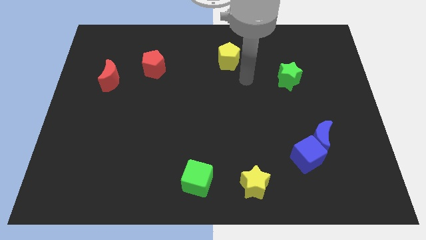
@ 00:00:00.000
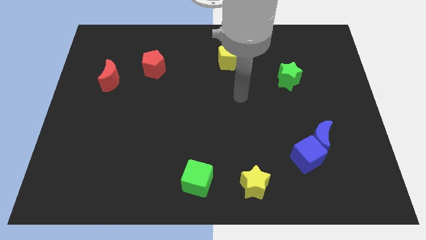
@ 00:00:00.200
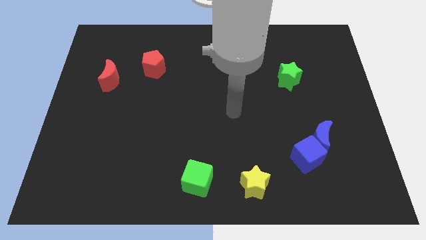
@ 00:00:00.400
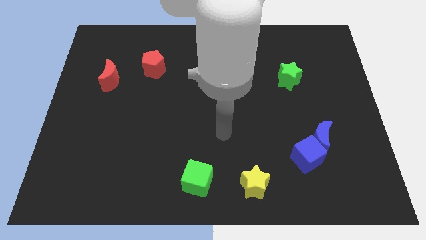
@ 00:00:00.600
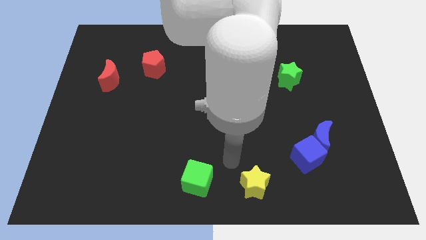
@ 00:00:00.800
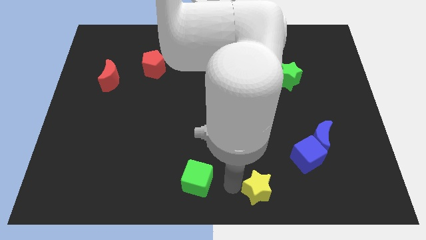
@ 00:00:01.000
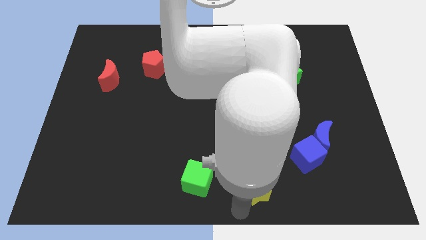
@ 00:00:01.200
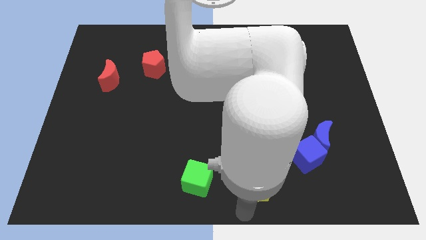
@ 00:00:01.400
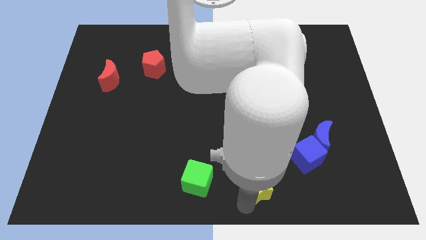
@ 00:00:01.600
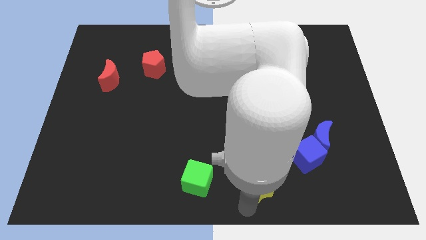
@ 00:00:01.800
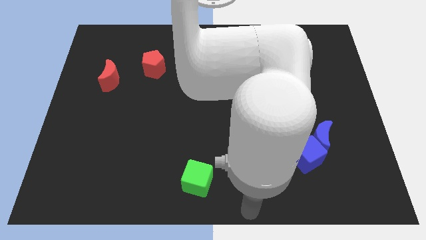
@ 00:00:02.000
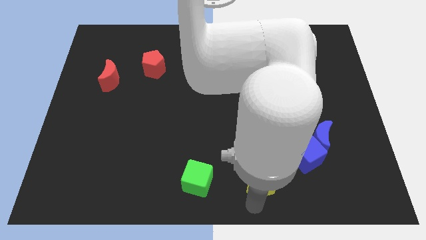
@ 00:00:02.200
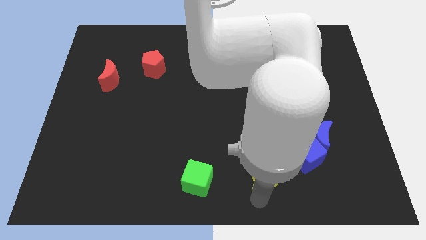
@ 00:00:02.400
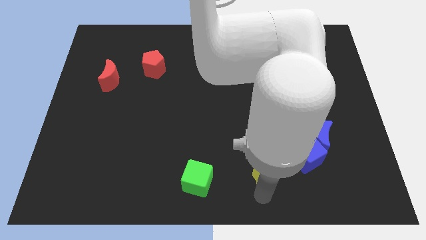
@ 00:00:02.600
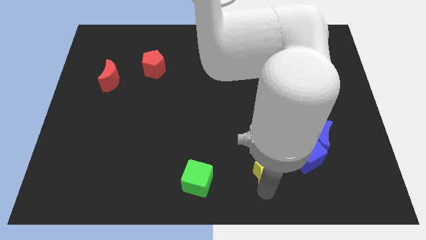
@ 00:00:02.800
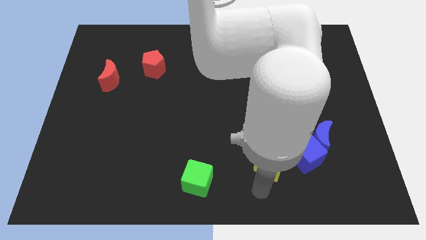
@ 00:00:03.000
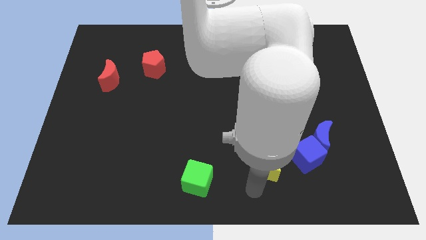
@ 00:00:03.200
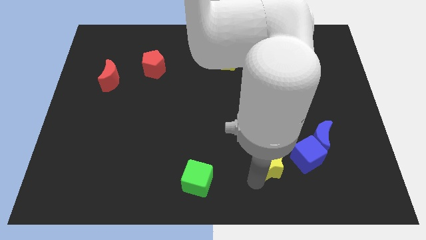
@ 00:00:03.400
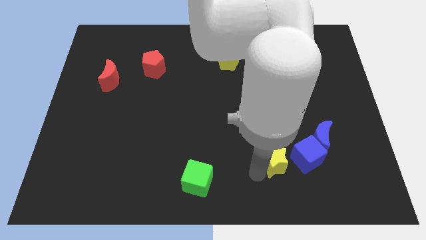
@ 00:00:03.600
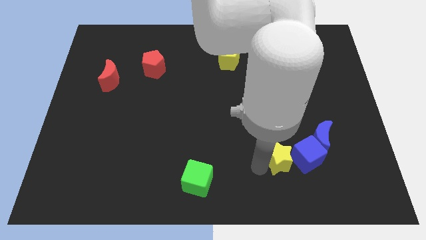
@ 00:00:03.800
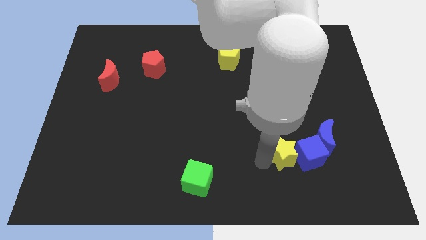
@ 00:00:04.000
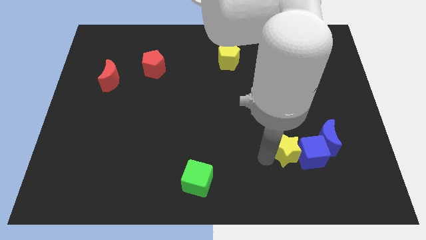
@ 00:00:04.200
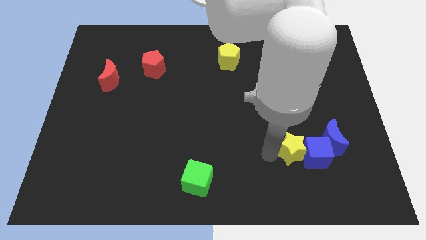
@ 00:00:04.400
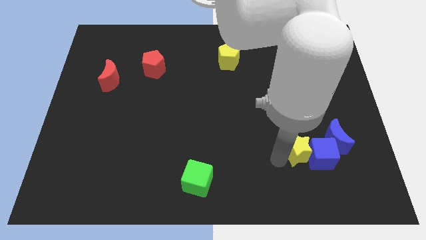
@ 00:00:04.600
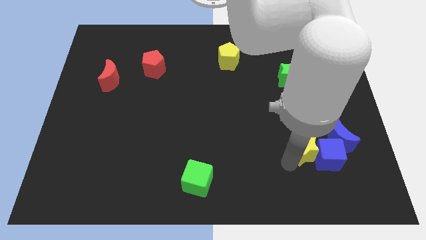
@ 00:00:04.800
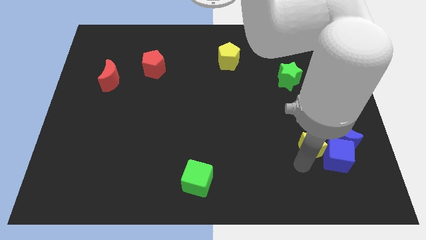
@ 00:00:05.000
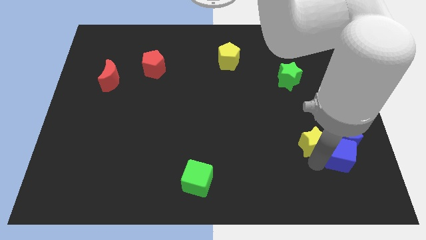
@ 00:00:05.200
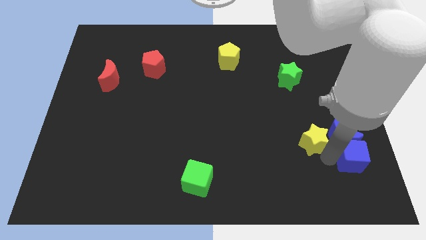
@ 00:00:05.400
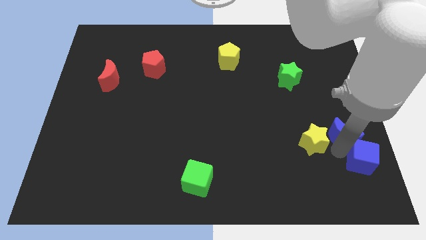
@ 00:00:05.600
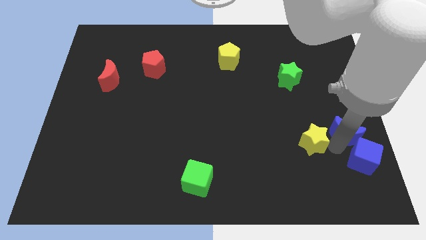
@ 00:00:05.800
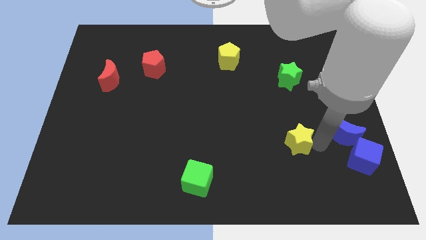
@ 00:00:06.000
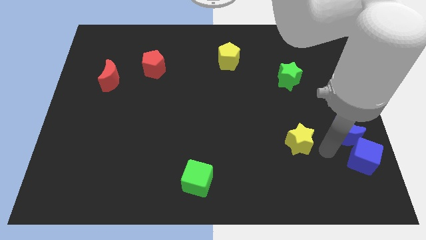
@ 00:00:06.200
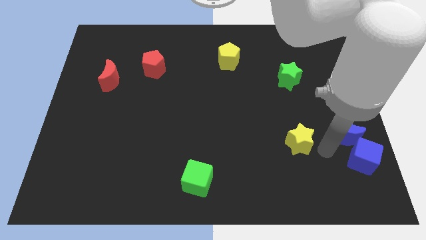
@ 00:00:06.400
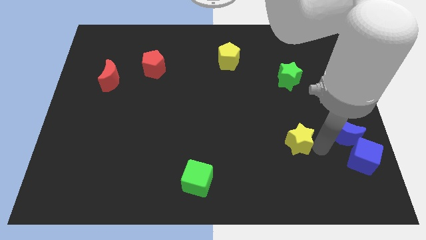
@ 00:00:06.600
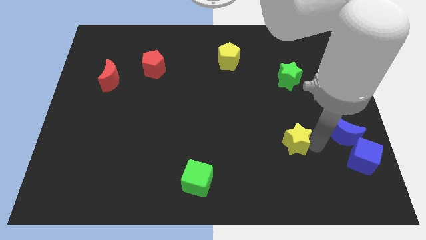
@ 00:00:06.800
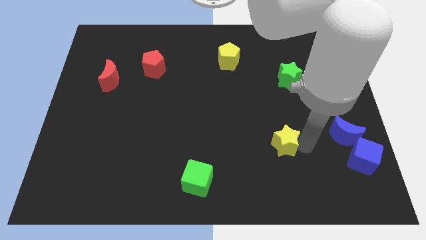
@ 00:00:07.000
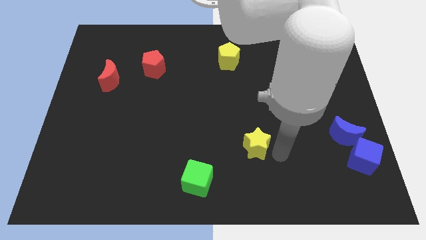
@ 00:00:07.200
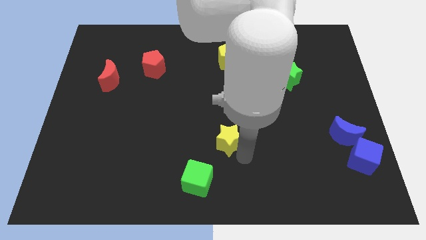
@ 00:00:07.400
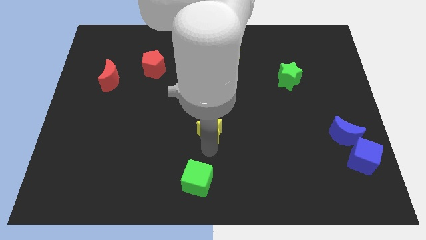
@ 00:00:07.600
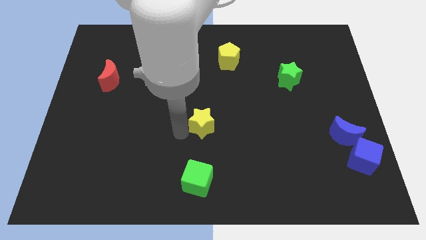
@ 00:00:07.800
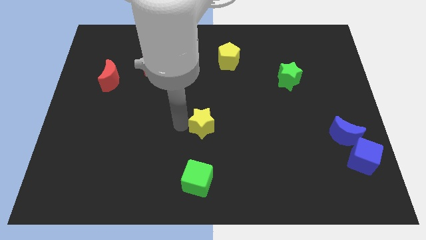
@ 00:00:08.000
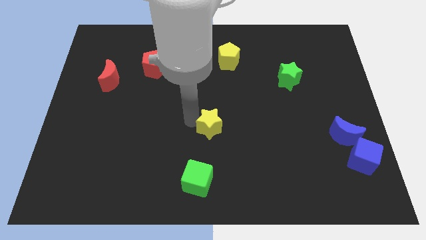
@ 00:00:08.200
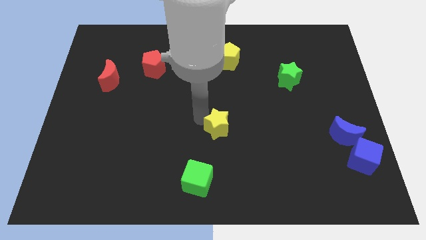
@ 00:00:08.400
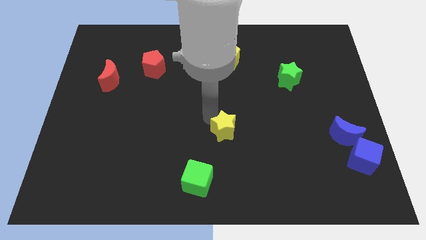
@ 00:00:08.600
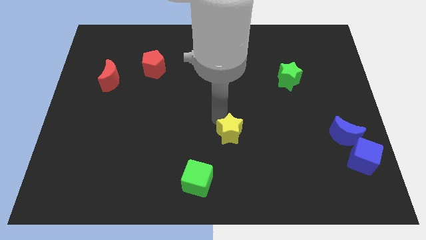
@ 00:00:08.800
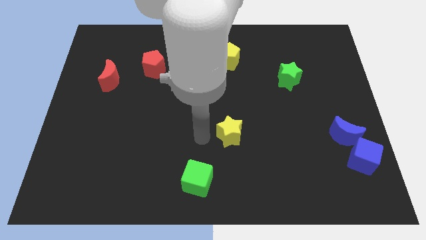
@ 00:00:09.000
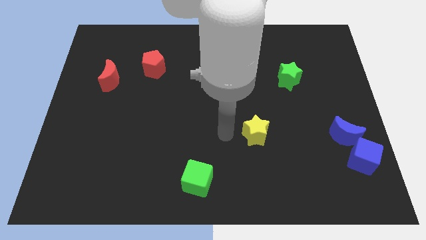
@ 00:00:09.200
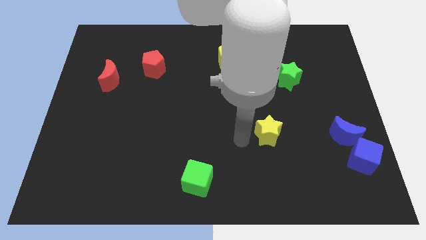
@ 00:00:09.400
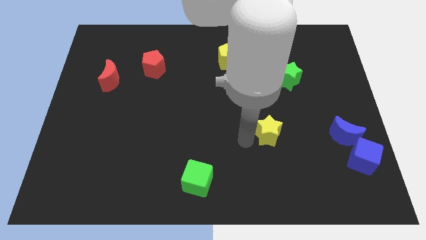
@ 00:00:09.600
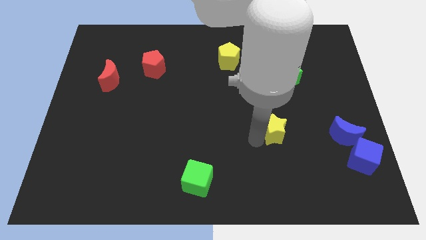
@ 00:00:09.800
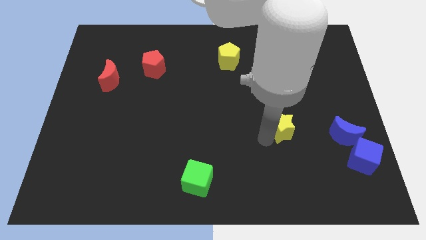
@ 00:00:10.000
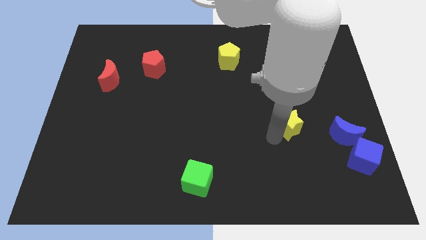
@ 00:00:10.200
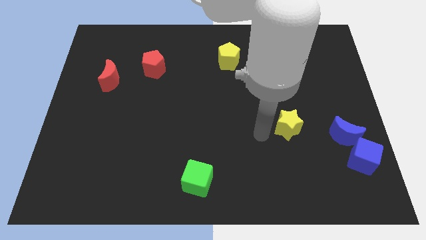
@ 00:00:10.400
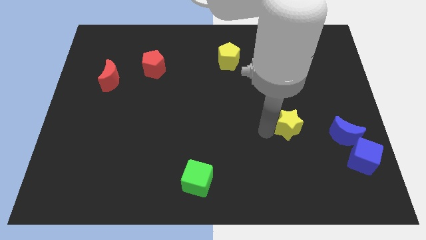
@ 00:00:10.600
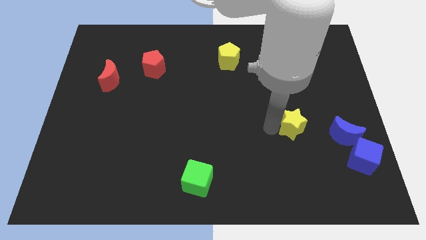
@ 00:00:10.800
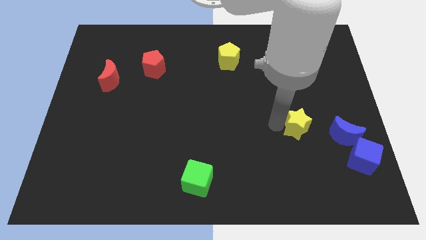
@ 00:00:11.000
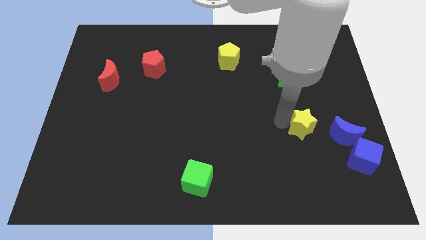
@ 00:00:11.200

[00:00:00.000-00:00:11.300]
slide the yellow star to the top left side of the blue moon

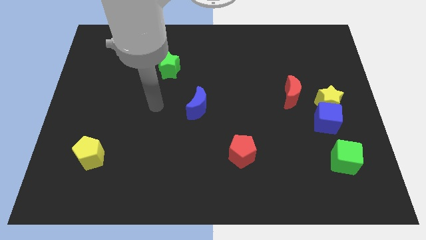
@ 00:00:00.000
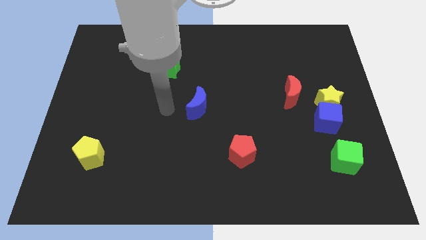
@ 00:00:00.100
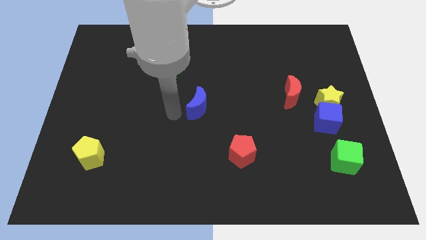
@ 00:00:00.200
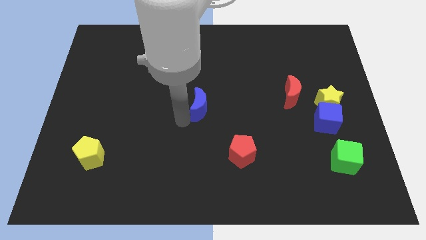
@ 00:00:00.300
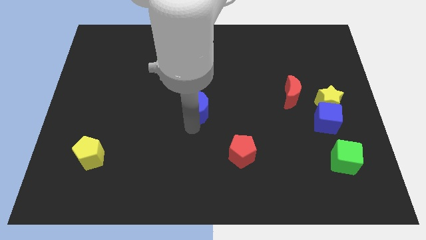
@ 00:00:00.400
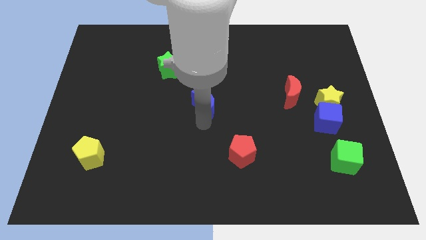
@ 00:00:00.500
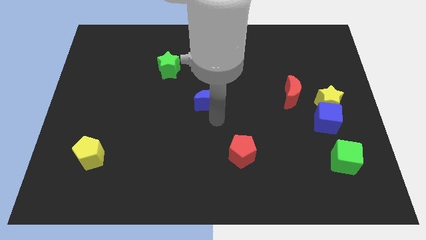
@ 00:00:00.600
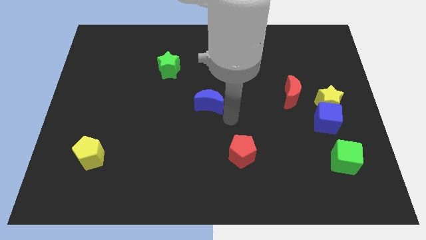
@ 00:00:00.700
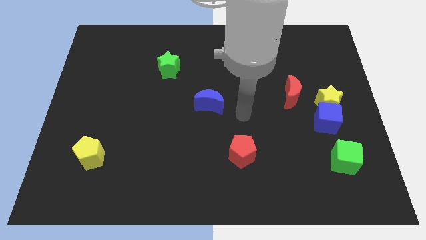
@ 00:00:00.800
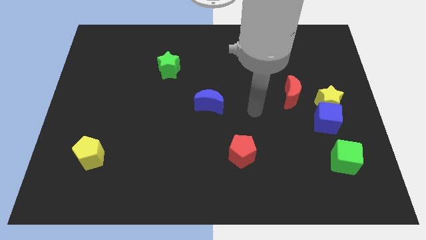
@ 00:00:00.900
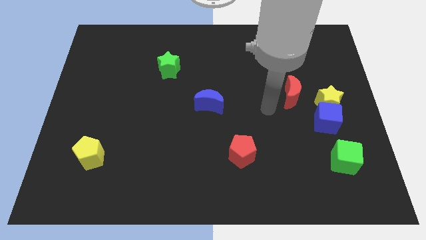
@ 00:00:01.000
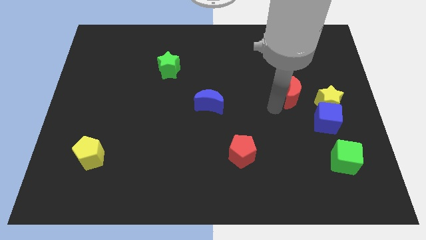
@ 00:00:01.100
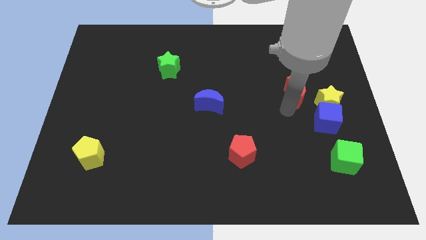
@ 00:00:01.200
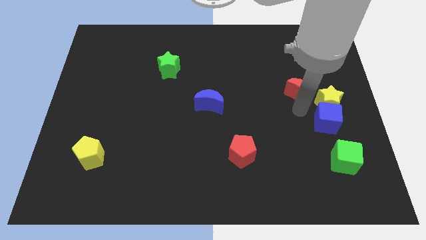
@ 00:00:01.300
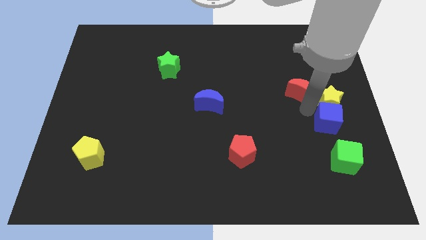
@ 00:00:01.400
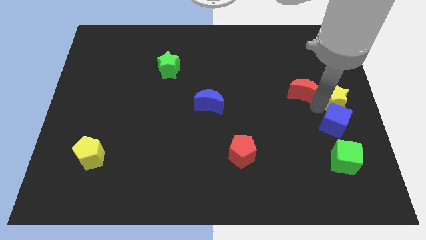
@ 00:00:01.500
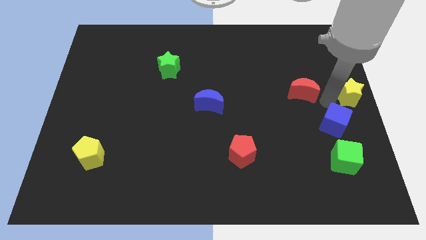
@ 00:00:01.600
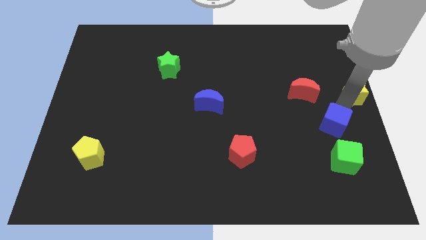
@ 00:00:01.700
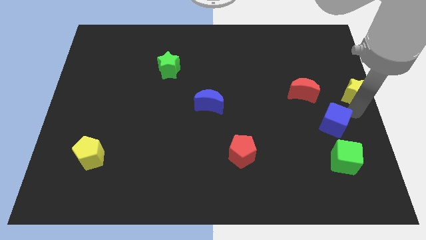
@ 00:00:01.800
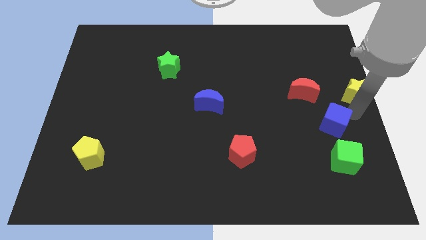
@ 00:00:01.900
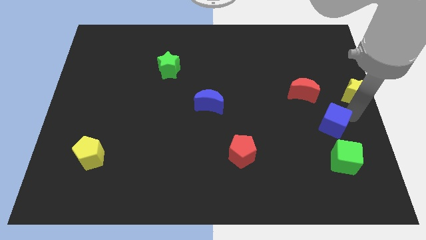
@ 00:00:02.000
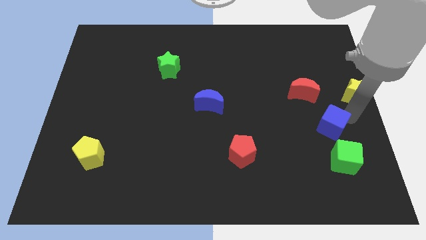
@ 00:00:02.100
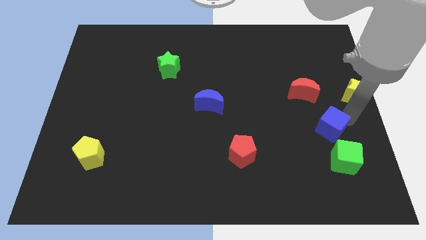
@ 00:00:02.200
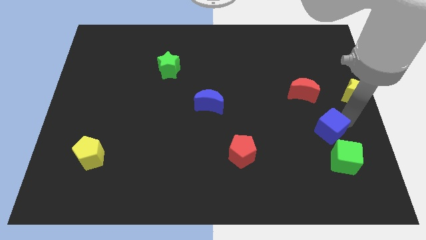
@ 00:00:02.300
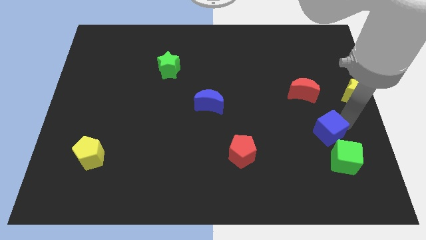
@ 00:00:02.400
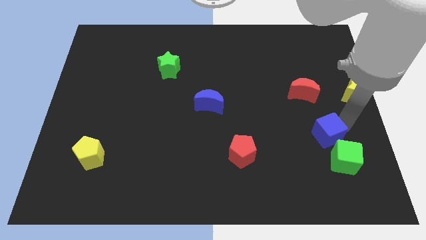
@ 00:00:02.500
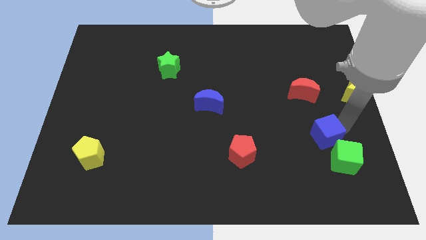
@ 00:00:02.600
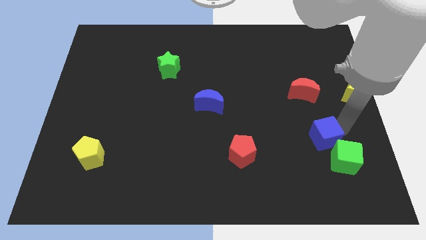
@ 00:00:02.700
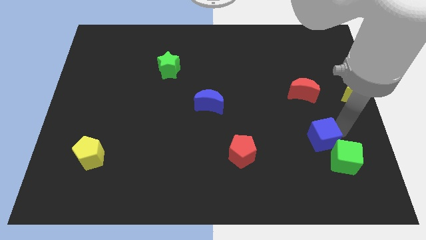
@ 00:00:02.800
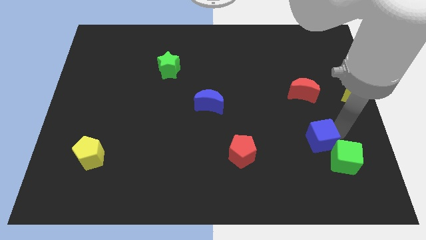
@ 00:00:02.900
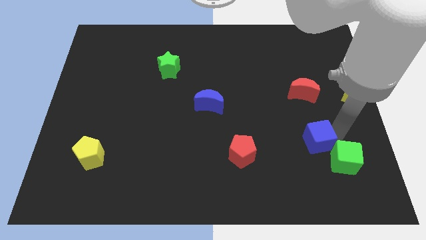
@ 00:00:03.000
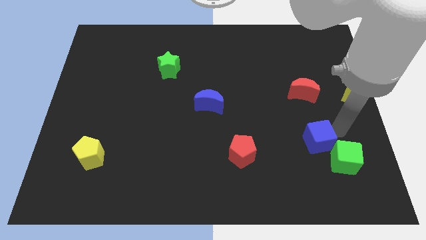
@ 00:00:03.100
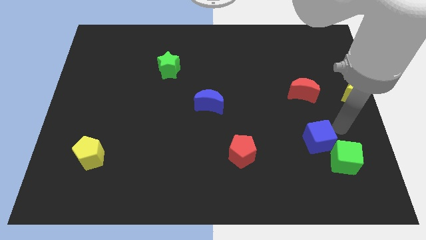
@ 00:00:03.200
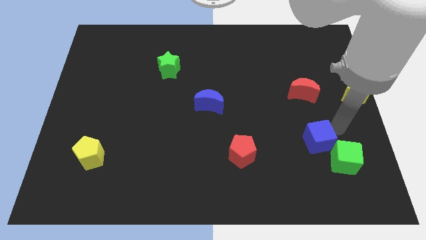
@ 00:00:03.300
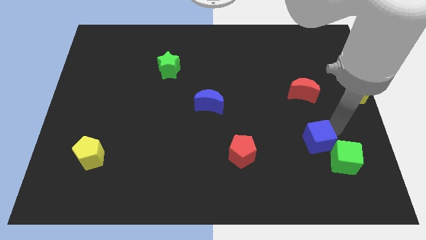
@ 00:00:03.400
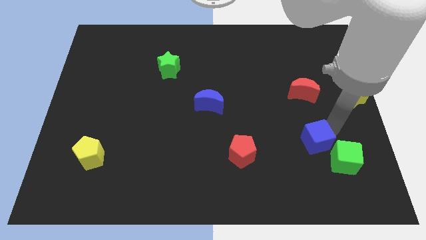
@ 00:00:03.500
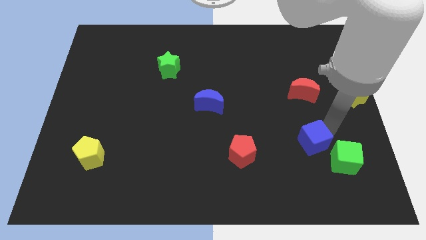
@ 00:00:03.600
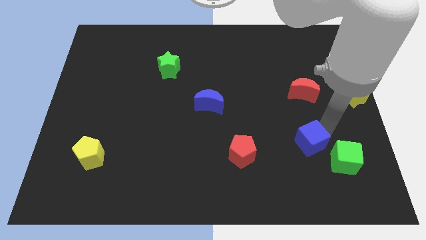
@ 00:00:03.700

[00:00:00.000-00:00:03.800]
put the blue cube just right of the red pentagon
